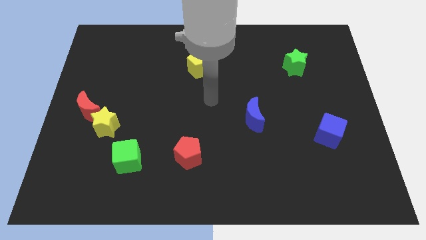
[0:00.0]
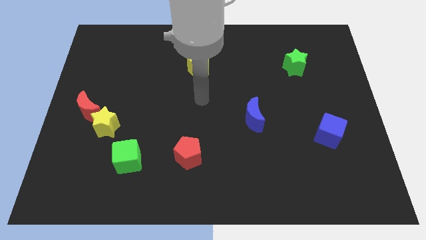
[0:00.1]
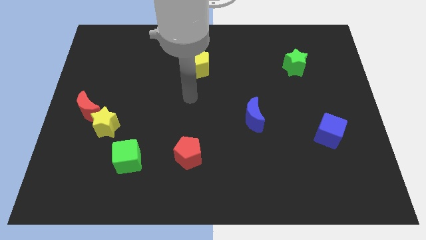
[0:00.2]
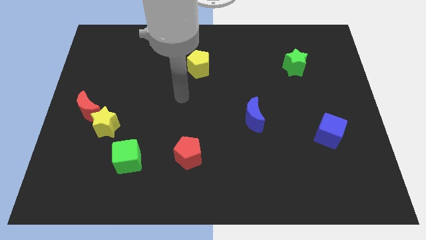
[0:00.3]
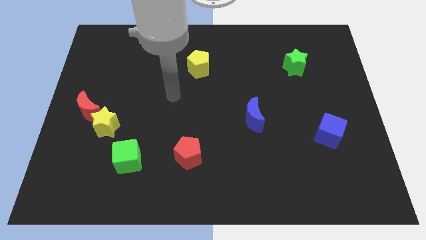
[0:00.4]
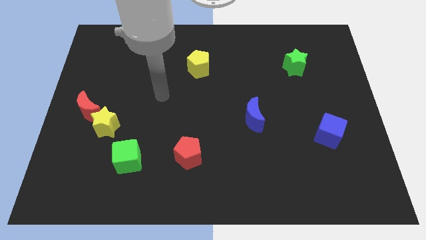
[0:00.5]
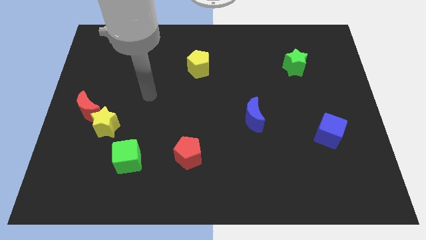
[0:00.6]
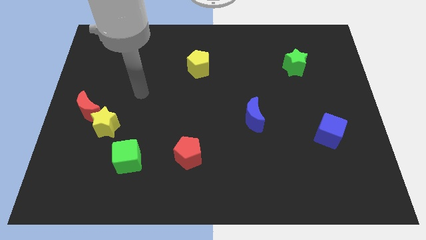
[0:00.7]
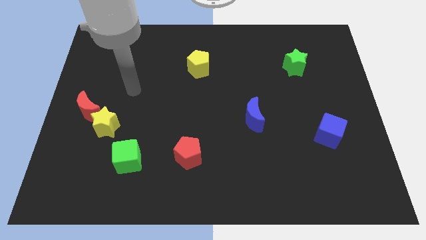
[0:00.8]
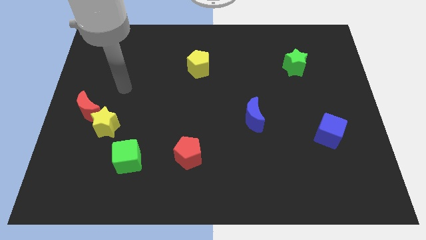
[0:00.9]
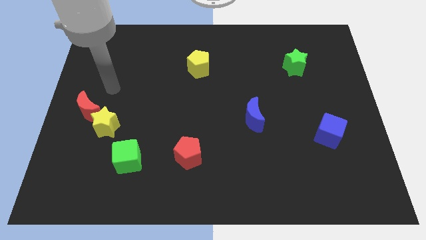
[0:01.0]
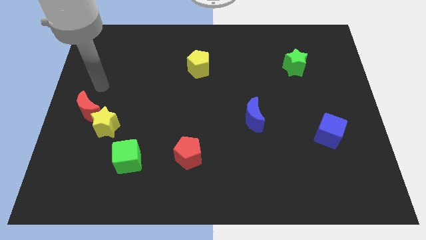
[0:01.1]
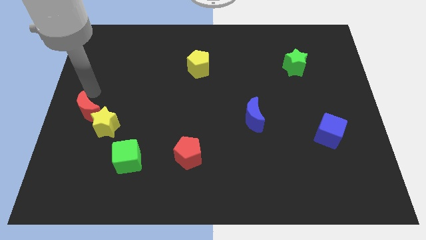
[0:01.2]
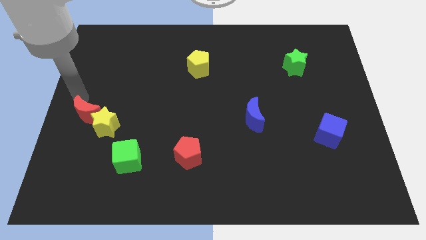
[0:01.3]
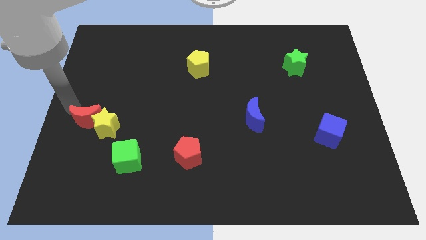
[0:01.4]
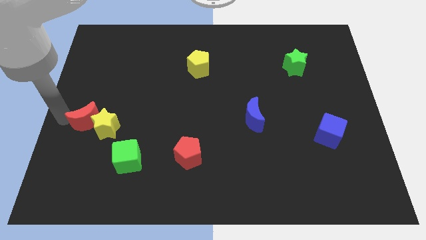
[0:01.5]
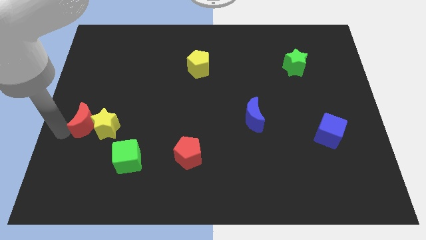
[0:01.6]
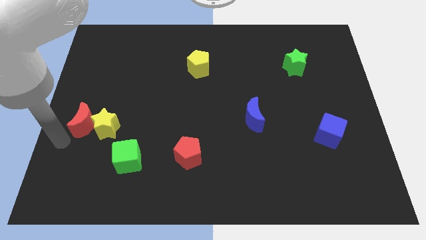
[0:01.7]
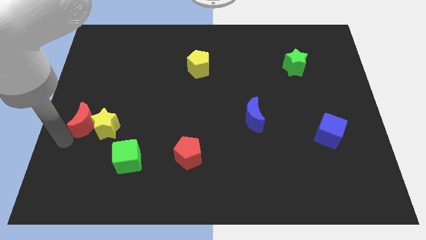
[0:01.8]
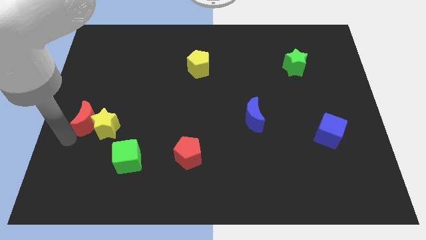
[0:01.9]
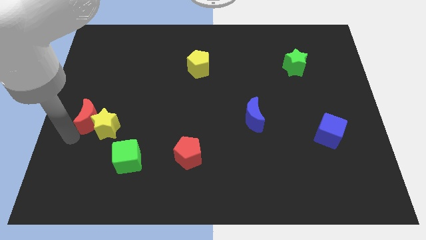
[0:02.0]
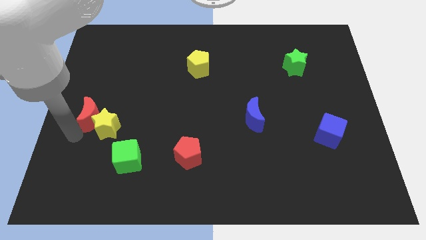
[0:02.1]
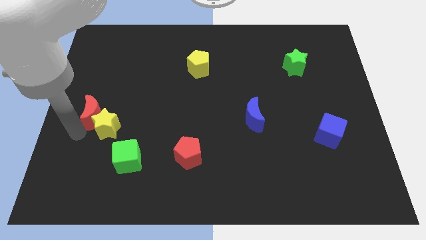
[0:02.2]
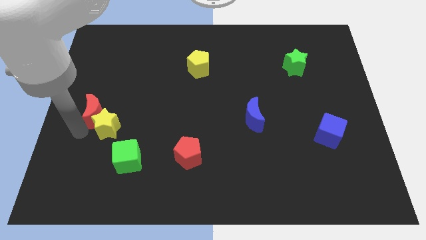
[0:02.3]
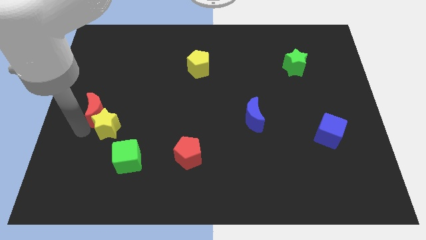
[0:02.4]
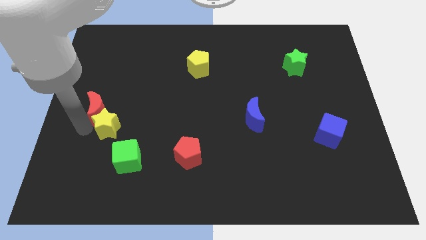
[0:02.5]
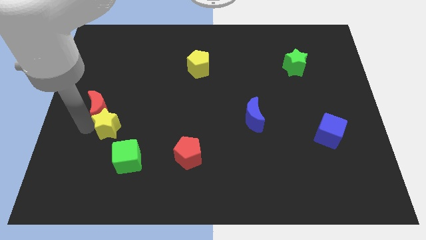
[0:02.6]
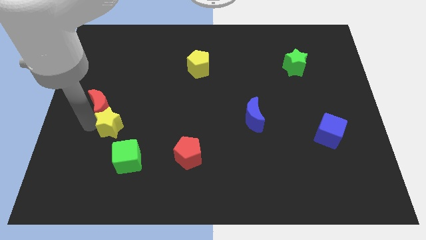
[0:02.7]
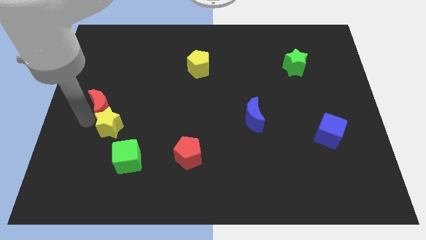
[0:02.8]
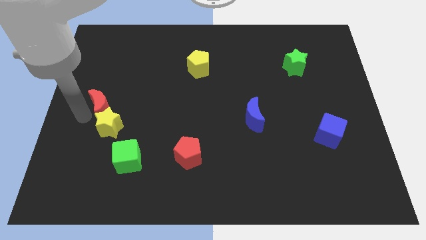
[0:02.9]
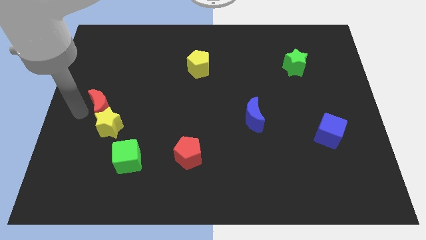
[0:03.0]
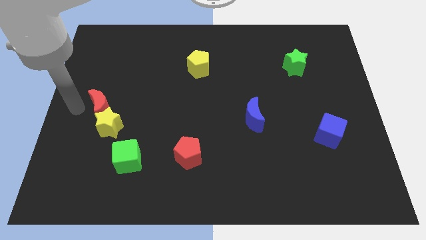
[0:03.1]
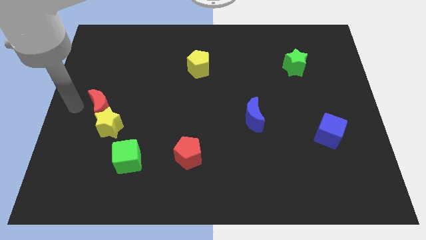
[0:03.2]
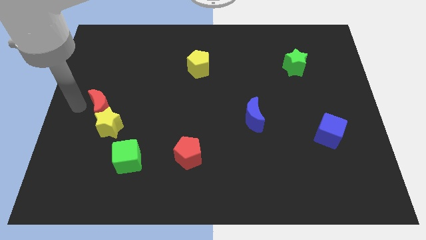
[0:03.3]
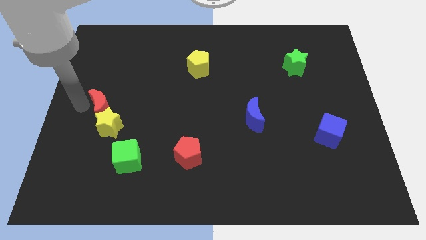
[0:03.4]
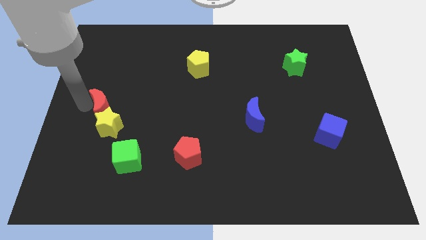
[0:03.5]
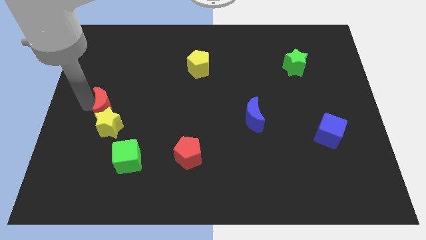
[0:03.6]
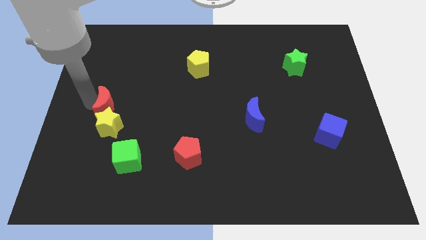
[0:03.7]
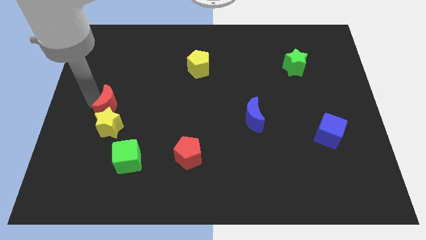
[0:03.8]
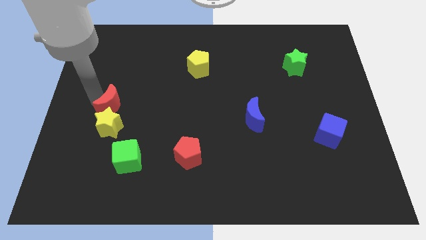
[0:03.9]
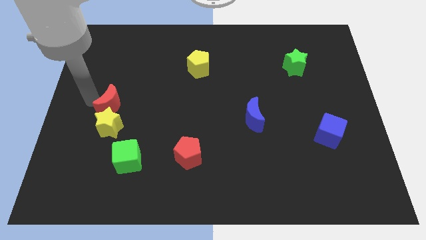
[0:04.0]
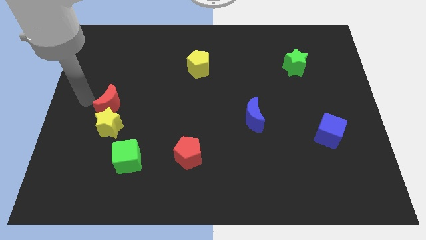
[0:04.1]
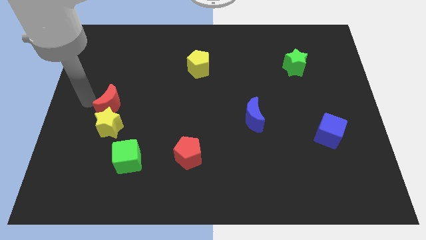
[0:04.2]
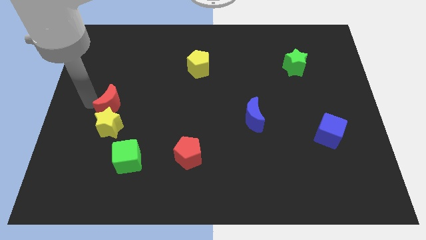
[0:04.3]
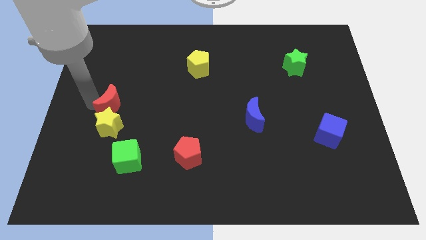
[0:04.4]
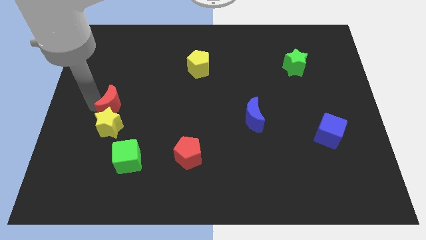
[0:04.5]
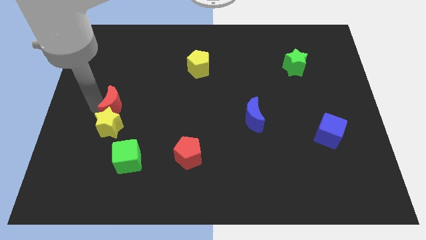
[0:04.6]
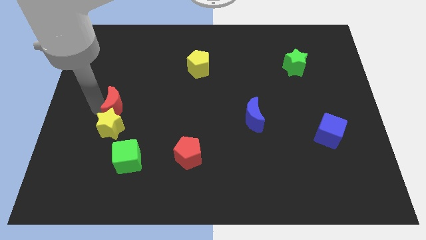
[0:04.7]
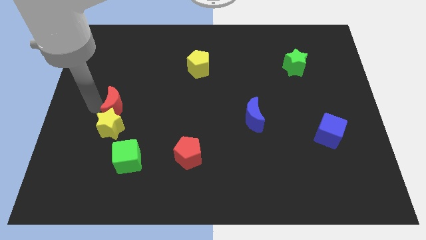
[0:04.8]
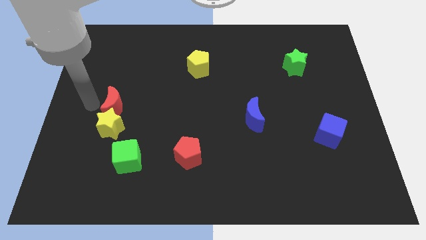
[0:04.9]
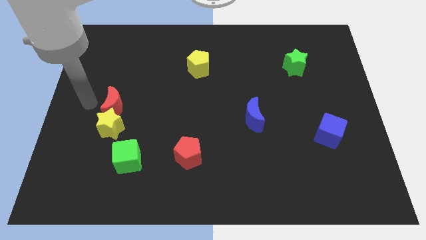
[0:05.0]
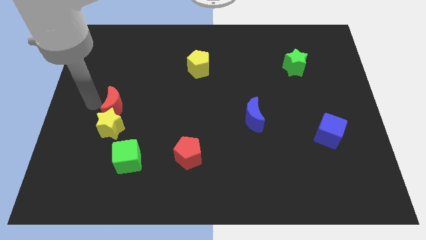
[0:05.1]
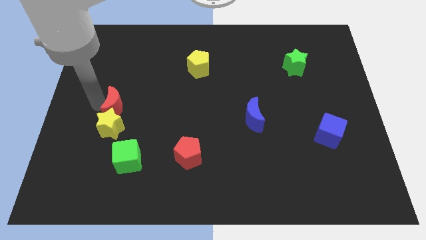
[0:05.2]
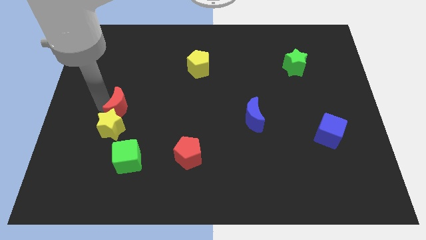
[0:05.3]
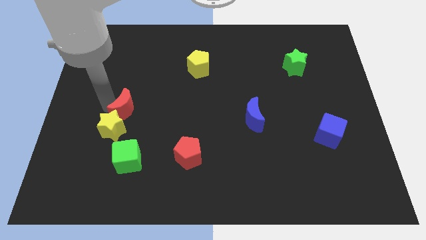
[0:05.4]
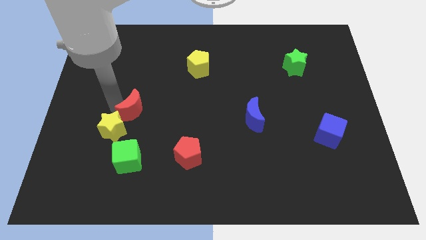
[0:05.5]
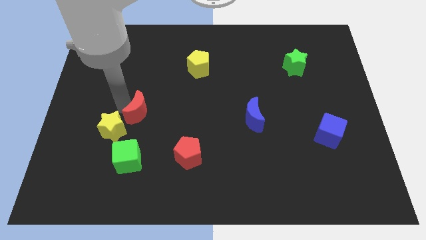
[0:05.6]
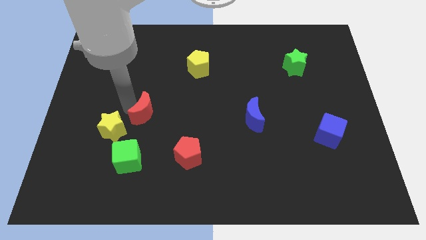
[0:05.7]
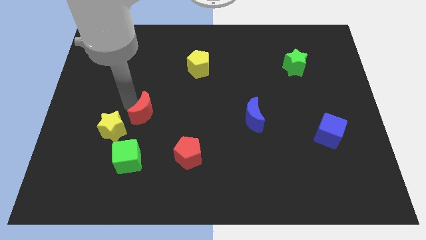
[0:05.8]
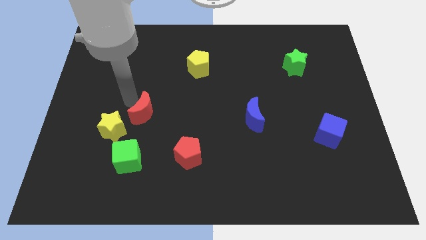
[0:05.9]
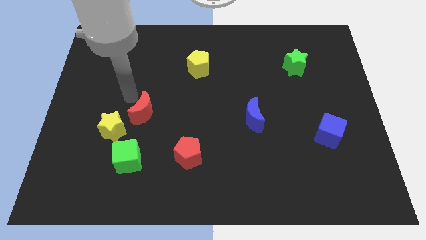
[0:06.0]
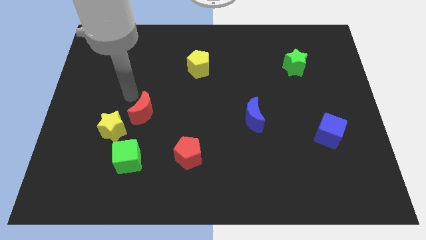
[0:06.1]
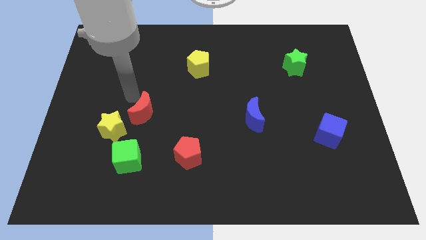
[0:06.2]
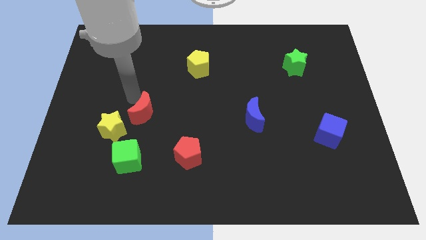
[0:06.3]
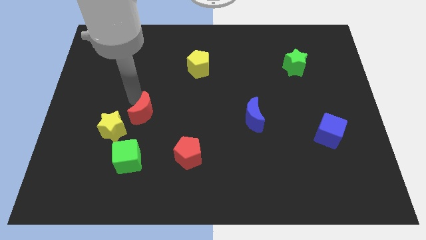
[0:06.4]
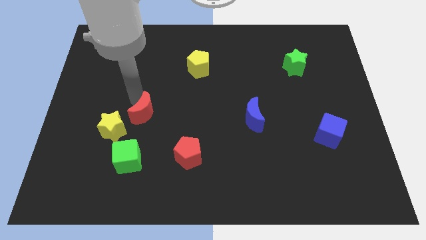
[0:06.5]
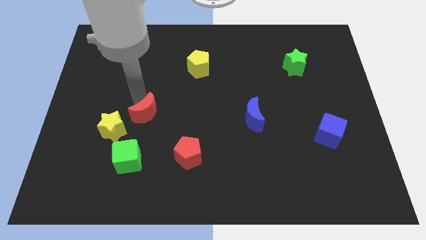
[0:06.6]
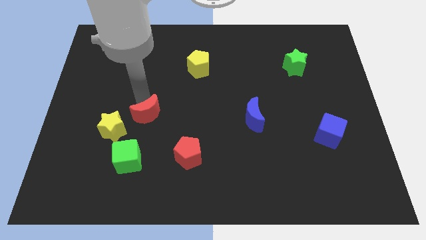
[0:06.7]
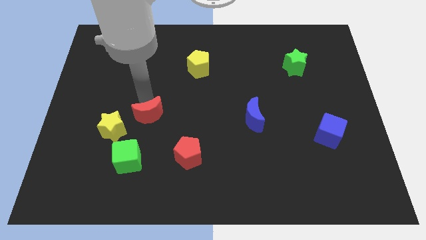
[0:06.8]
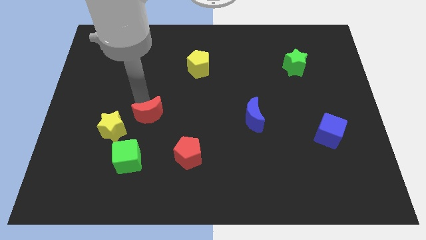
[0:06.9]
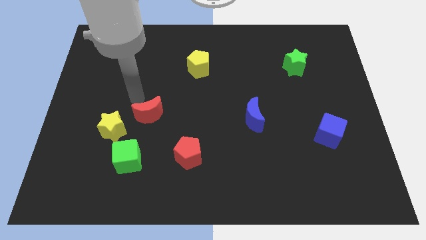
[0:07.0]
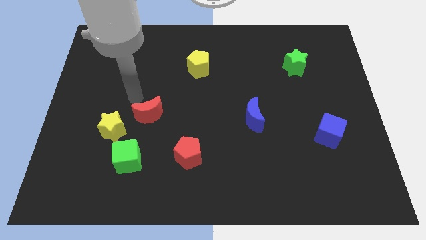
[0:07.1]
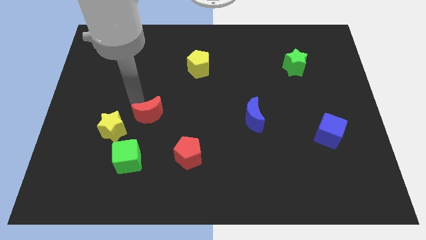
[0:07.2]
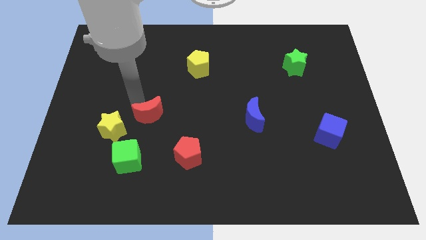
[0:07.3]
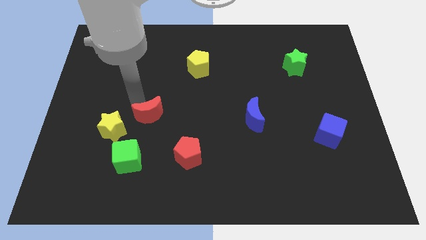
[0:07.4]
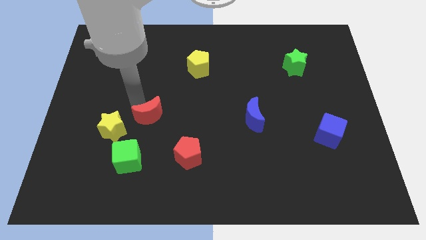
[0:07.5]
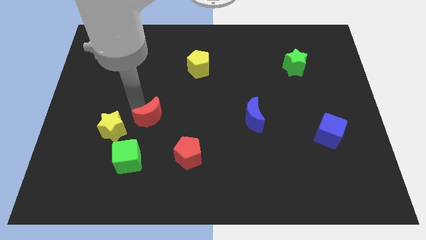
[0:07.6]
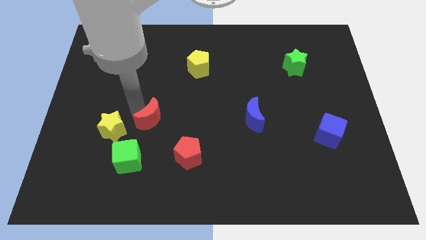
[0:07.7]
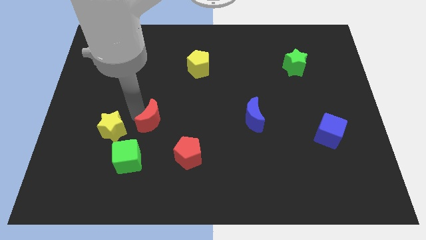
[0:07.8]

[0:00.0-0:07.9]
slide the red moon diagonally up and to the left of the red pentagon
